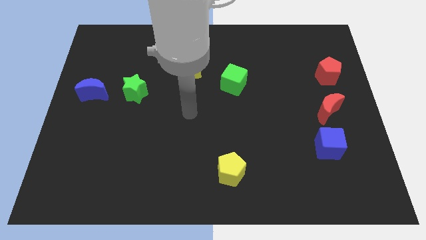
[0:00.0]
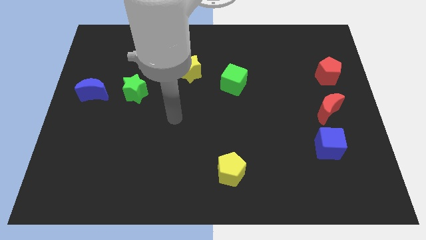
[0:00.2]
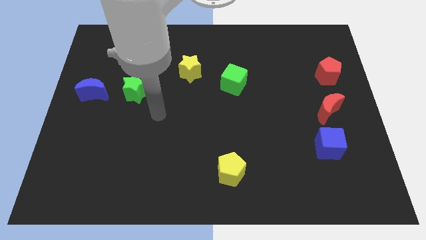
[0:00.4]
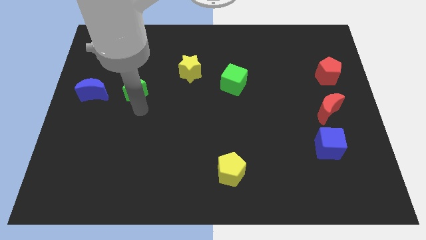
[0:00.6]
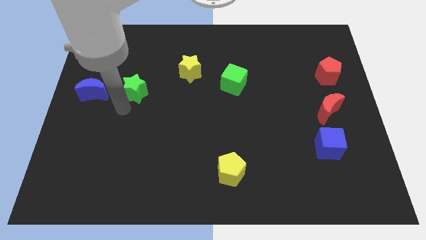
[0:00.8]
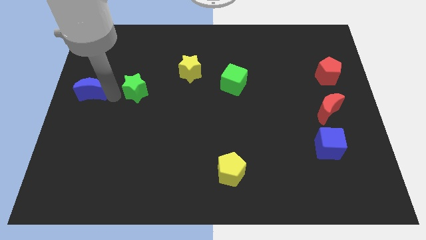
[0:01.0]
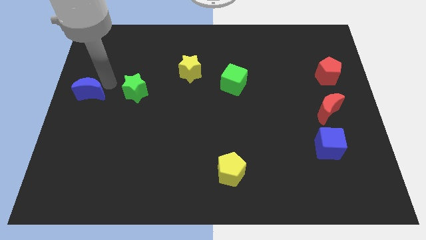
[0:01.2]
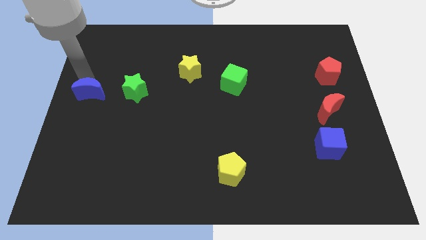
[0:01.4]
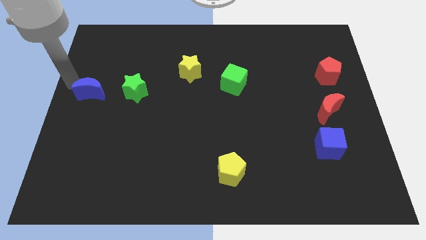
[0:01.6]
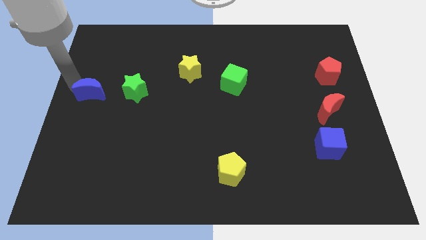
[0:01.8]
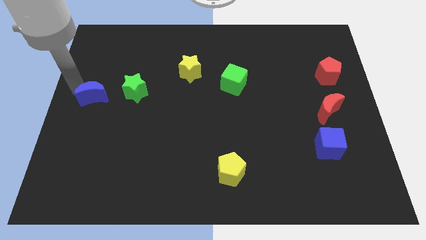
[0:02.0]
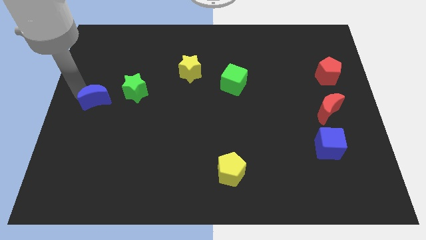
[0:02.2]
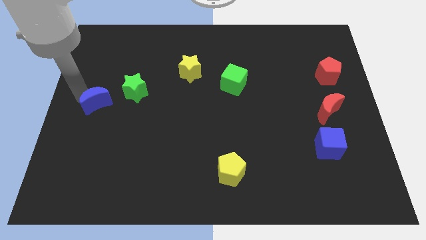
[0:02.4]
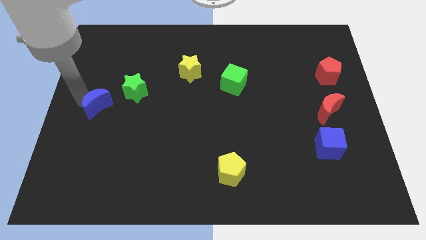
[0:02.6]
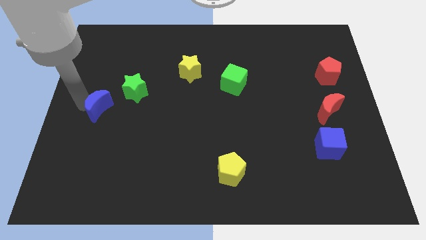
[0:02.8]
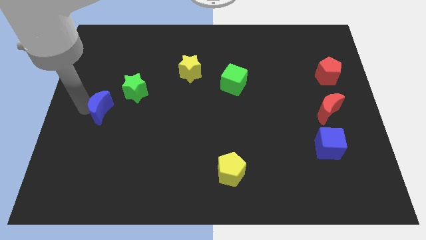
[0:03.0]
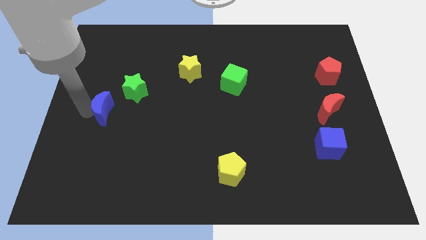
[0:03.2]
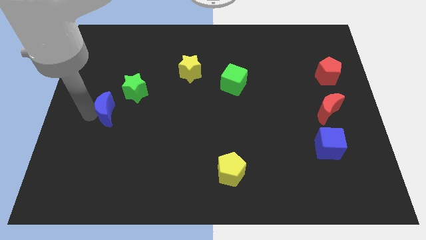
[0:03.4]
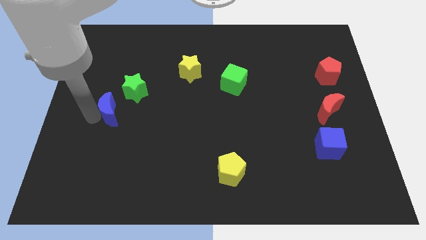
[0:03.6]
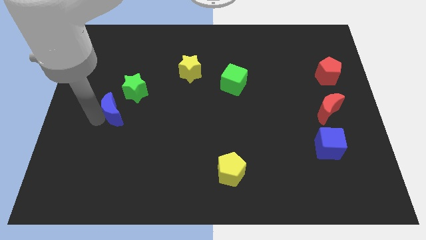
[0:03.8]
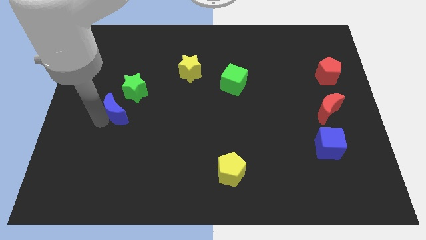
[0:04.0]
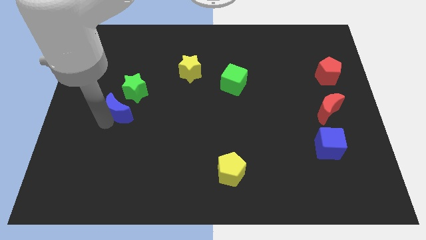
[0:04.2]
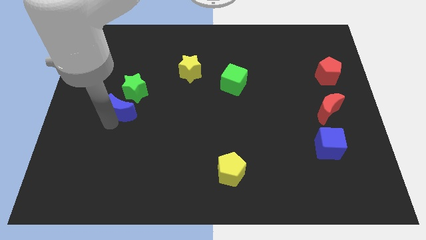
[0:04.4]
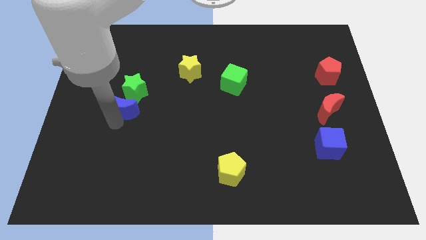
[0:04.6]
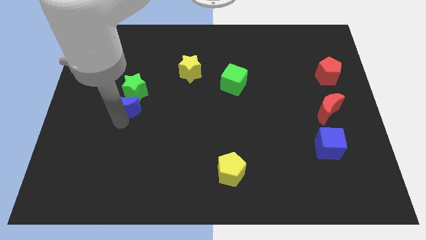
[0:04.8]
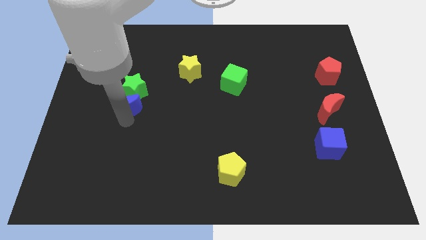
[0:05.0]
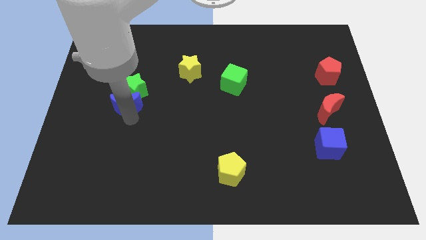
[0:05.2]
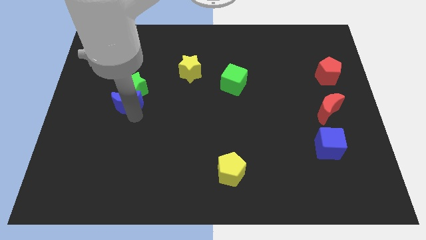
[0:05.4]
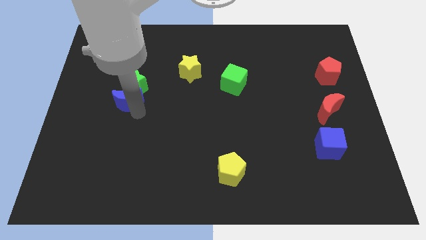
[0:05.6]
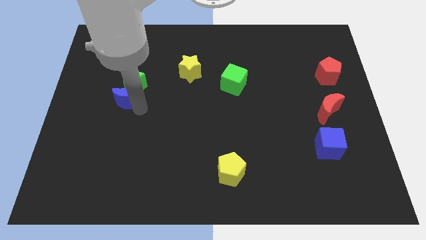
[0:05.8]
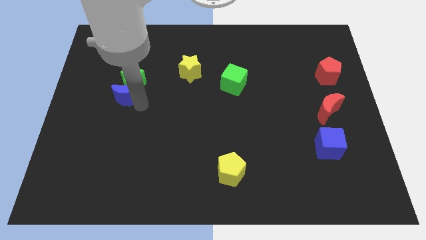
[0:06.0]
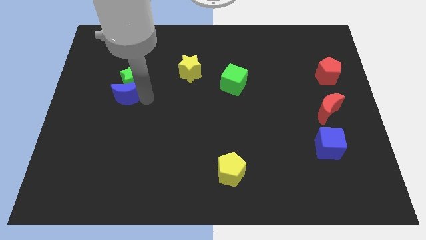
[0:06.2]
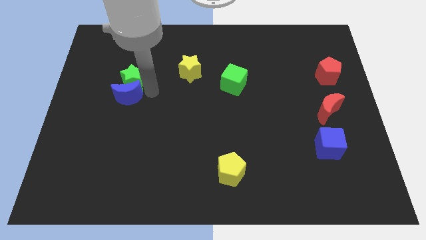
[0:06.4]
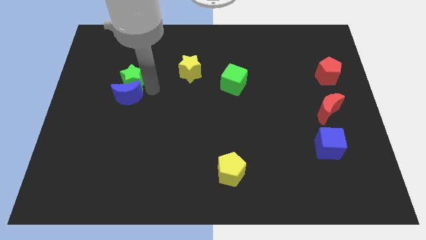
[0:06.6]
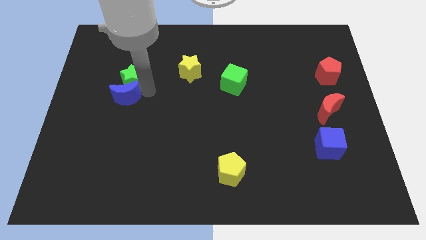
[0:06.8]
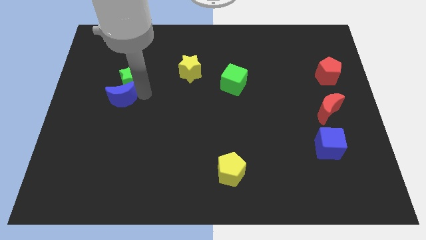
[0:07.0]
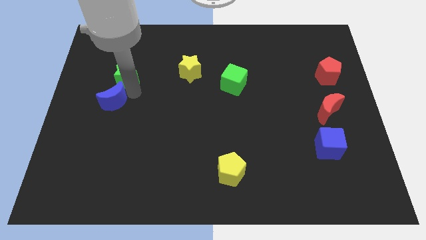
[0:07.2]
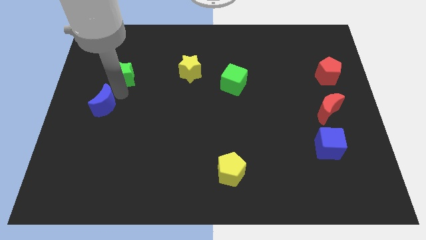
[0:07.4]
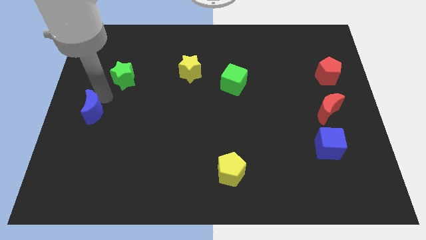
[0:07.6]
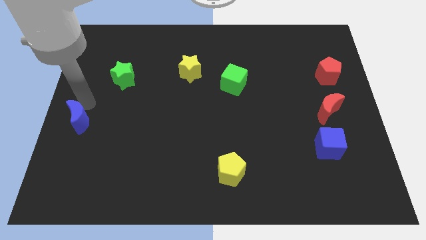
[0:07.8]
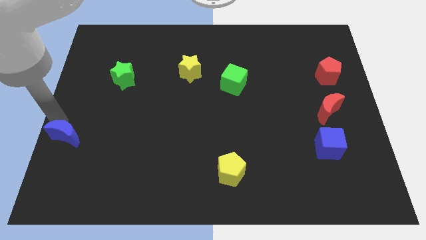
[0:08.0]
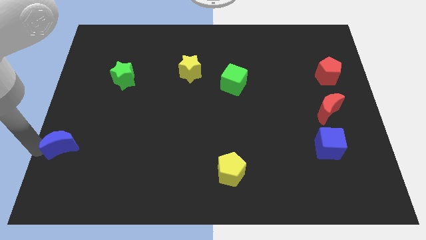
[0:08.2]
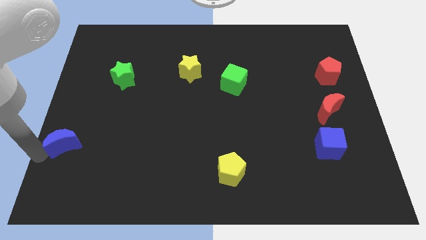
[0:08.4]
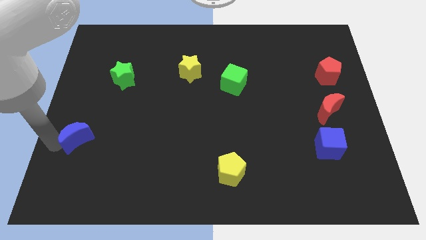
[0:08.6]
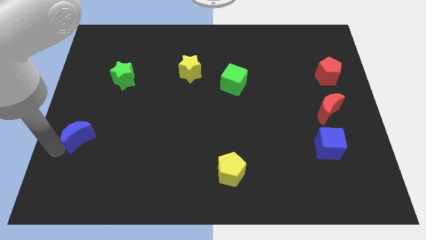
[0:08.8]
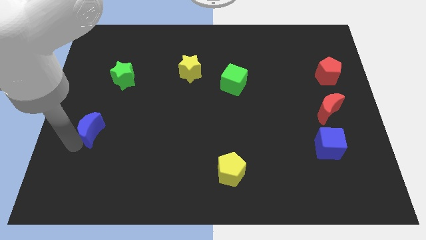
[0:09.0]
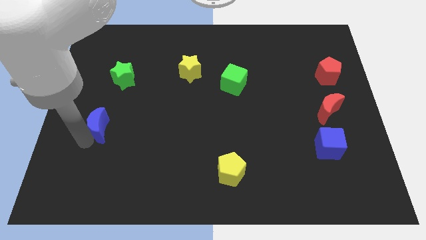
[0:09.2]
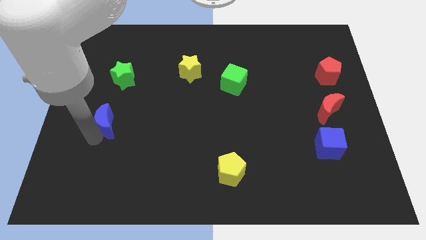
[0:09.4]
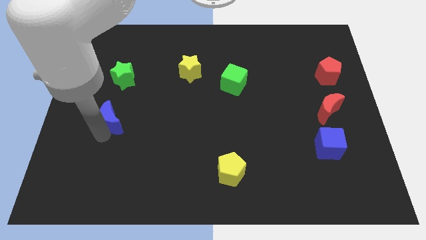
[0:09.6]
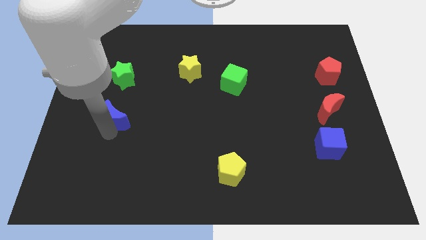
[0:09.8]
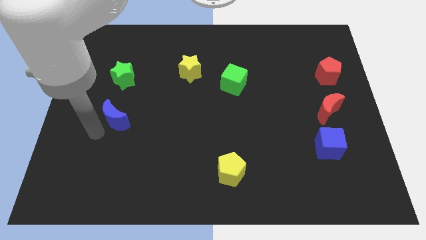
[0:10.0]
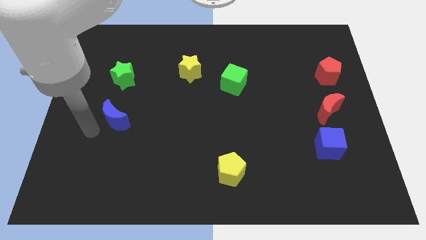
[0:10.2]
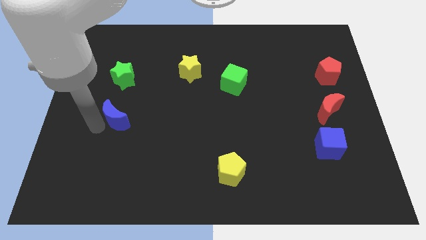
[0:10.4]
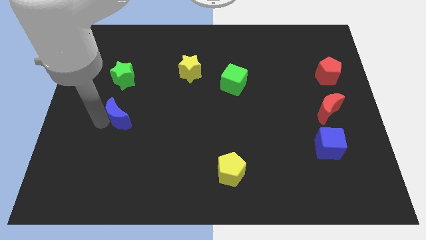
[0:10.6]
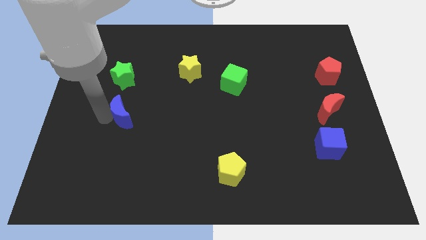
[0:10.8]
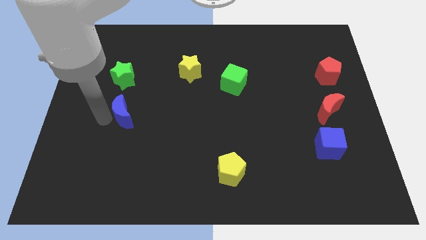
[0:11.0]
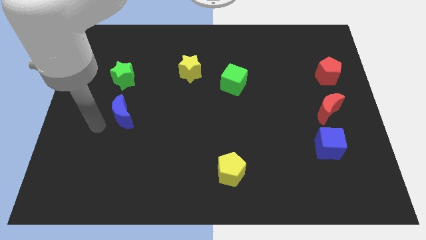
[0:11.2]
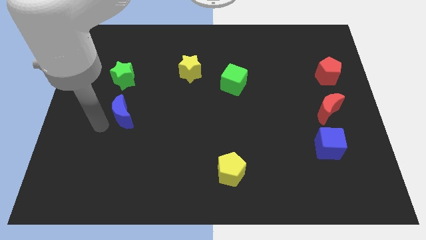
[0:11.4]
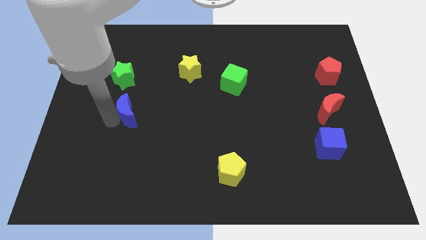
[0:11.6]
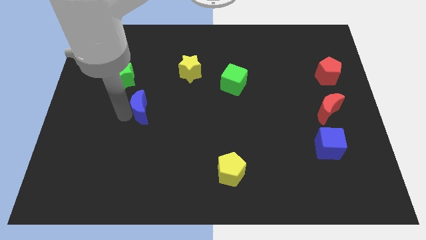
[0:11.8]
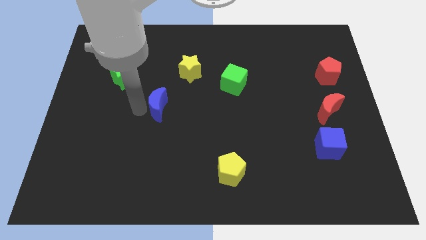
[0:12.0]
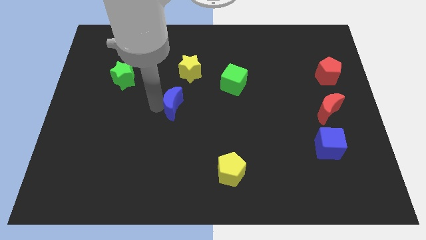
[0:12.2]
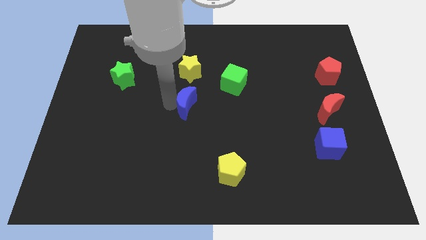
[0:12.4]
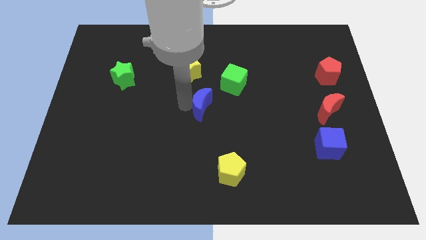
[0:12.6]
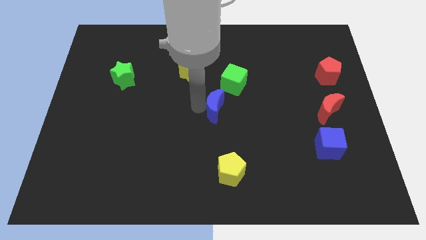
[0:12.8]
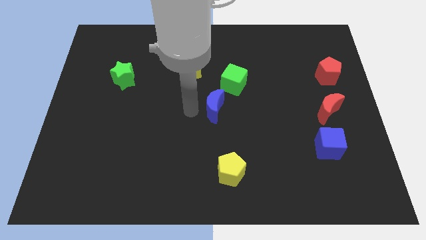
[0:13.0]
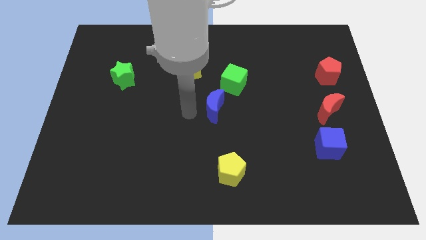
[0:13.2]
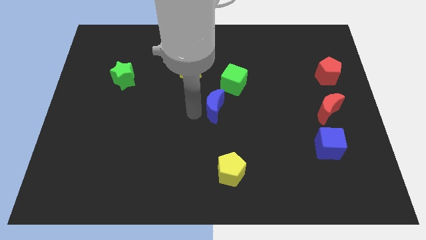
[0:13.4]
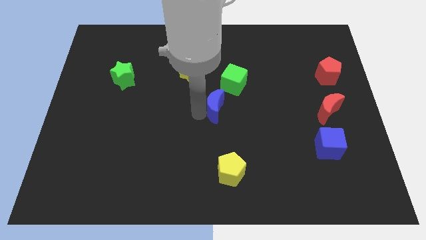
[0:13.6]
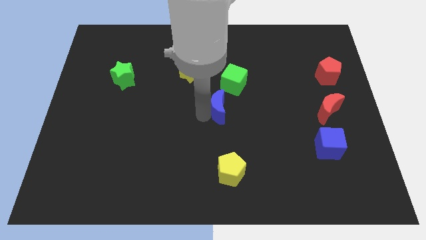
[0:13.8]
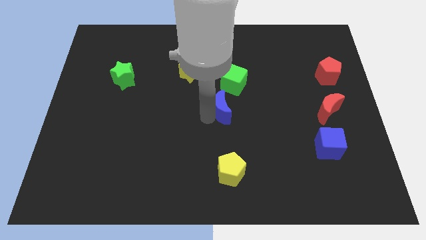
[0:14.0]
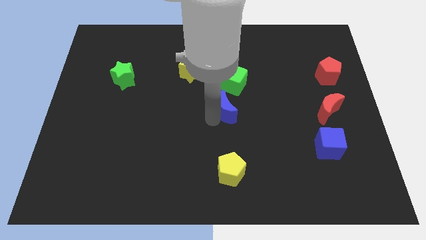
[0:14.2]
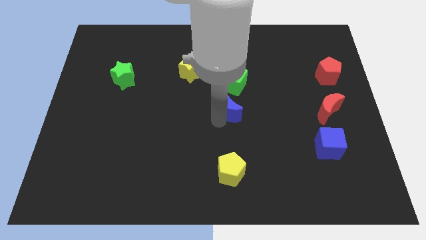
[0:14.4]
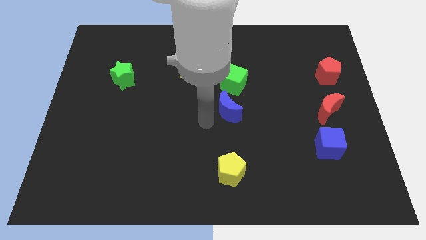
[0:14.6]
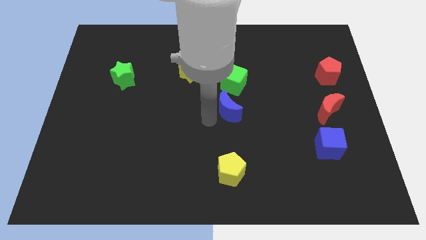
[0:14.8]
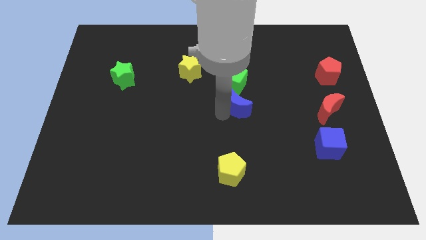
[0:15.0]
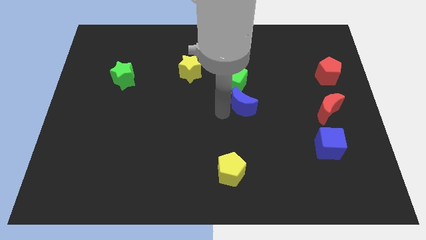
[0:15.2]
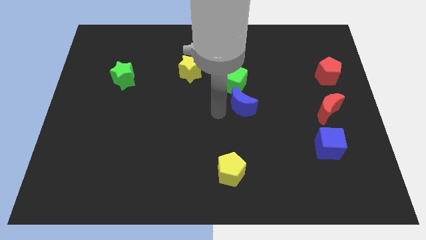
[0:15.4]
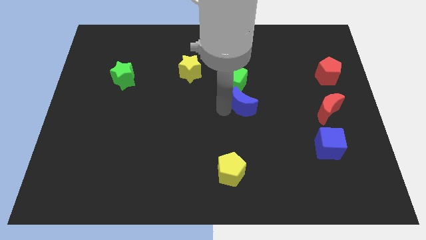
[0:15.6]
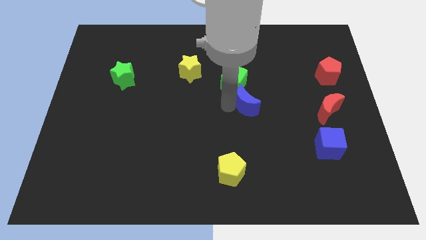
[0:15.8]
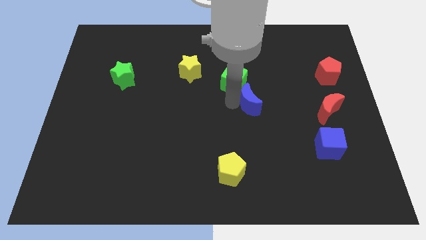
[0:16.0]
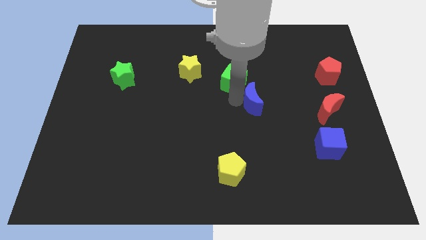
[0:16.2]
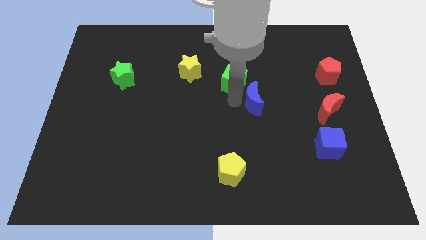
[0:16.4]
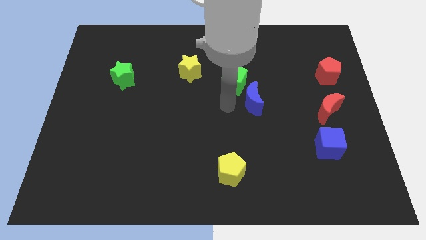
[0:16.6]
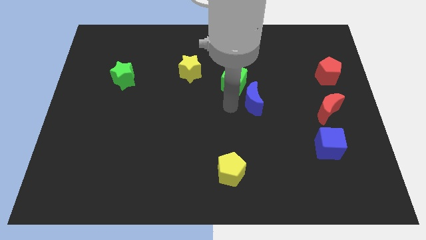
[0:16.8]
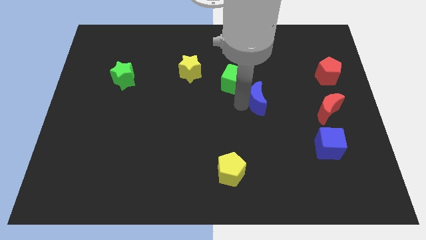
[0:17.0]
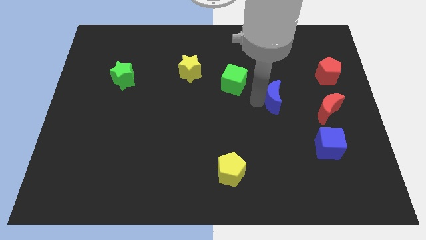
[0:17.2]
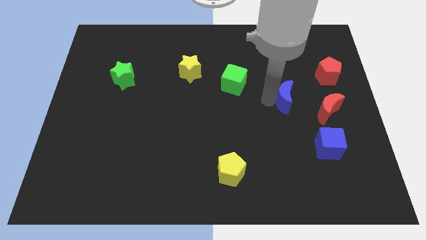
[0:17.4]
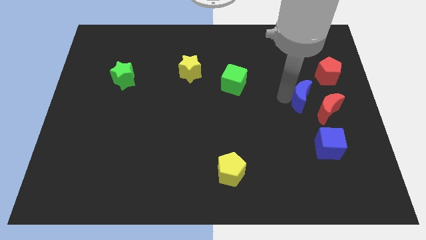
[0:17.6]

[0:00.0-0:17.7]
slide the blue moon above the blue cube
